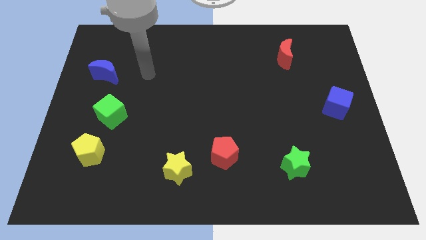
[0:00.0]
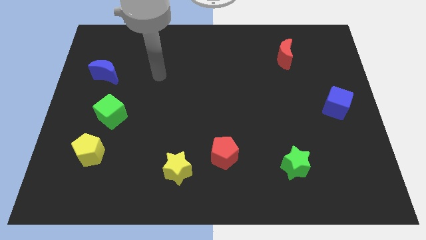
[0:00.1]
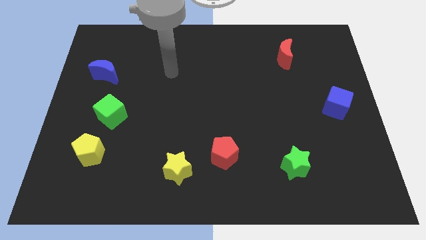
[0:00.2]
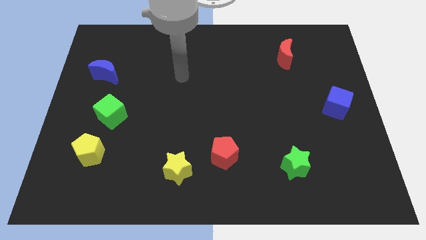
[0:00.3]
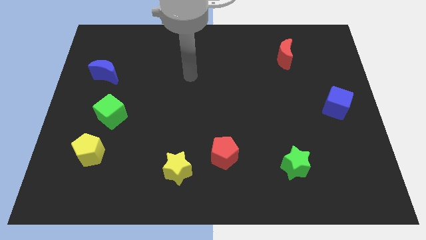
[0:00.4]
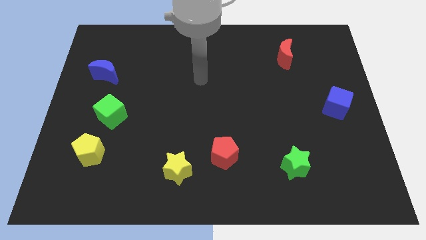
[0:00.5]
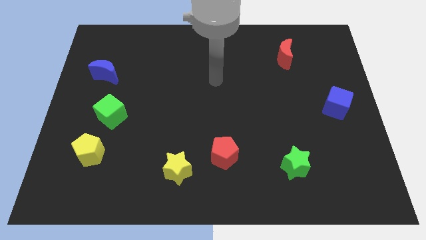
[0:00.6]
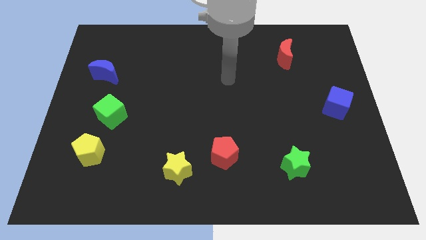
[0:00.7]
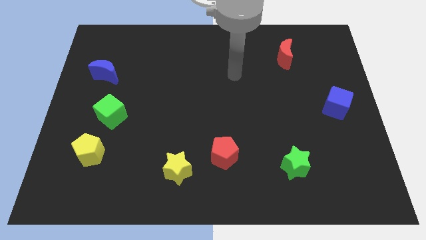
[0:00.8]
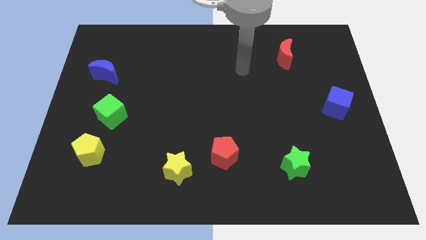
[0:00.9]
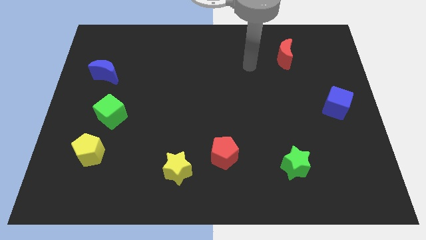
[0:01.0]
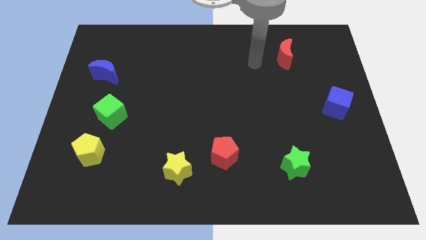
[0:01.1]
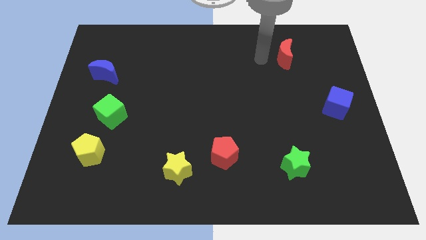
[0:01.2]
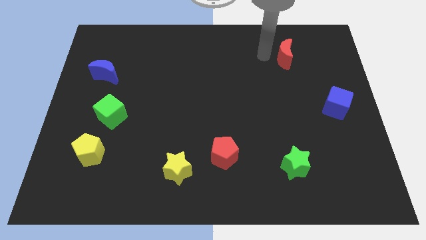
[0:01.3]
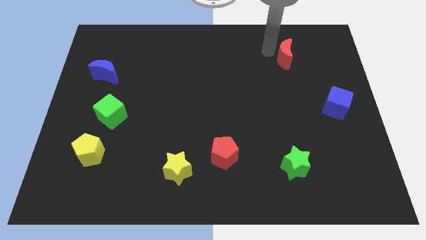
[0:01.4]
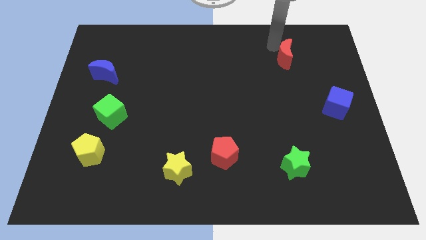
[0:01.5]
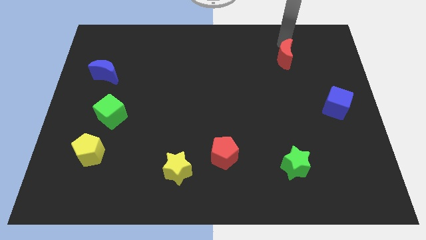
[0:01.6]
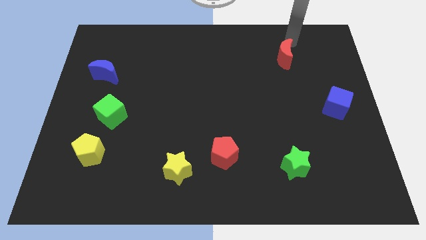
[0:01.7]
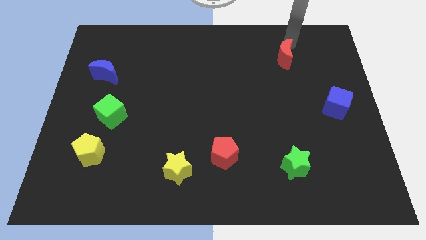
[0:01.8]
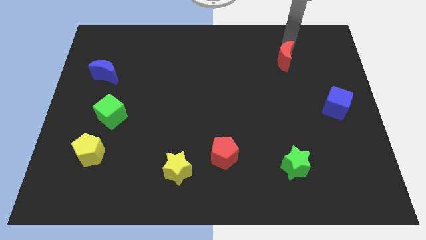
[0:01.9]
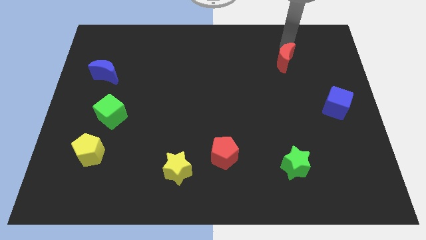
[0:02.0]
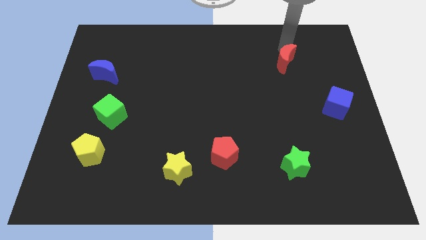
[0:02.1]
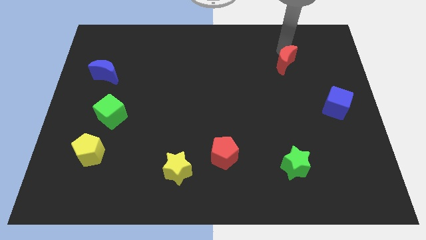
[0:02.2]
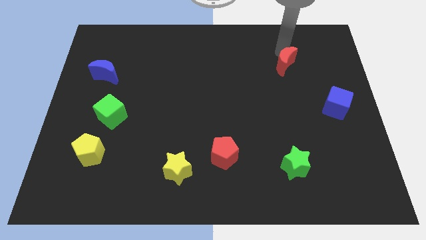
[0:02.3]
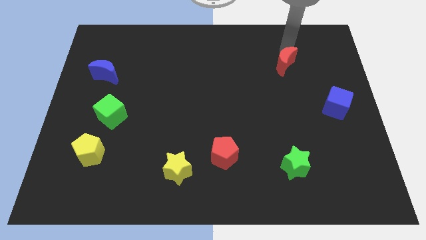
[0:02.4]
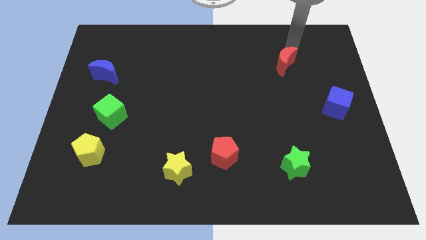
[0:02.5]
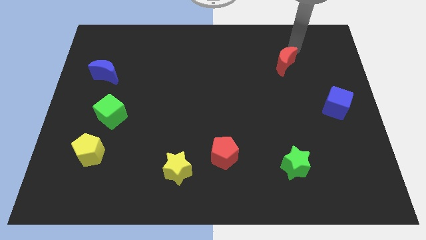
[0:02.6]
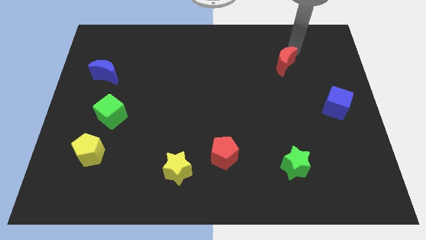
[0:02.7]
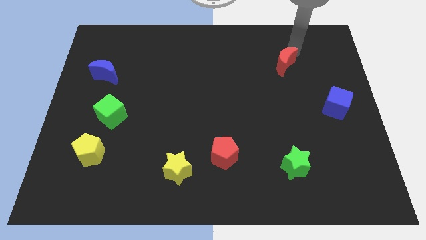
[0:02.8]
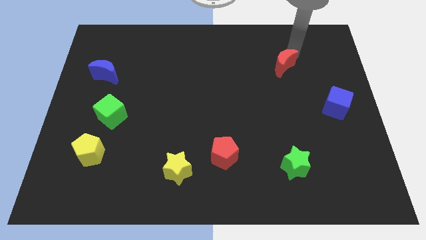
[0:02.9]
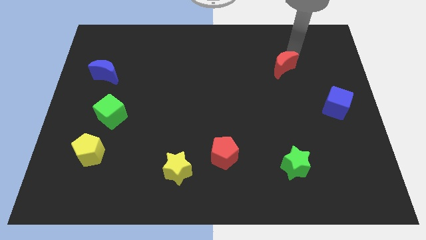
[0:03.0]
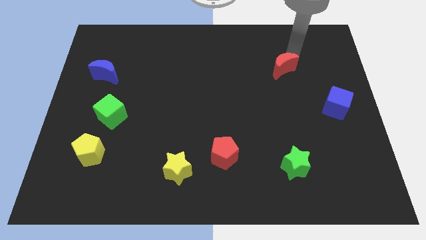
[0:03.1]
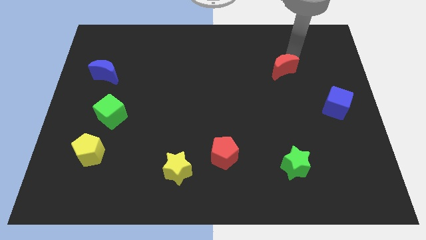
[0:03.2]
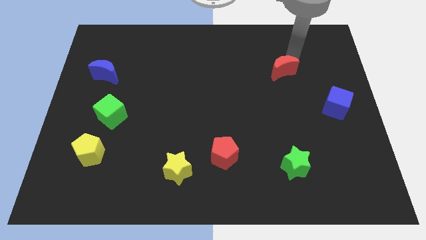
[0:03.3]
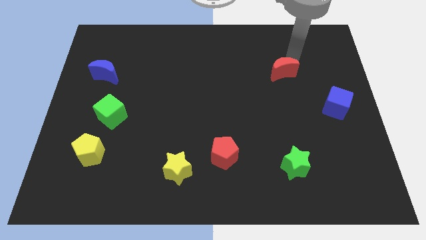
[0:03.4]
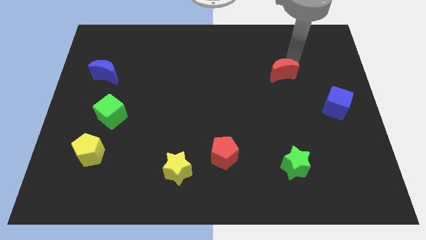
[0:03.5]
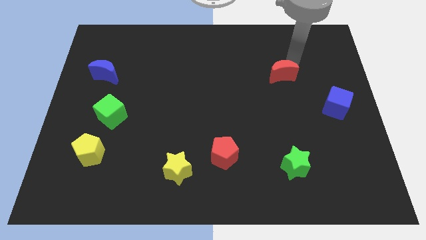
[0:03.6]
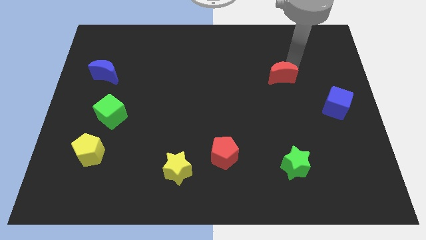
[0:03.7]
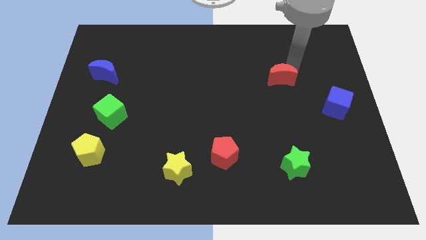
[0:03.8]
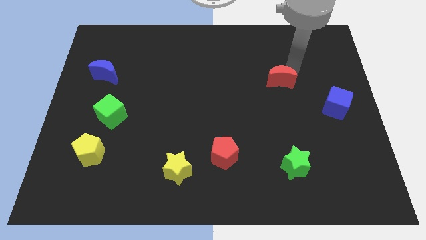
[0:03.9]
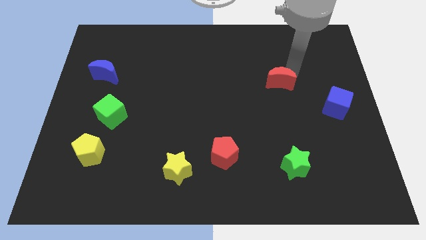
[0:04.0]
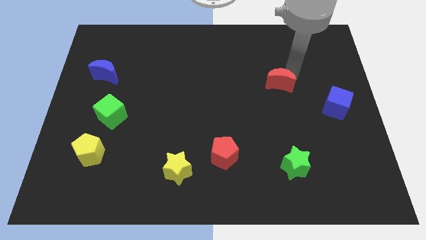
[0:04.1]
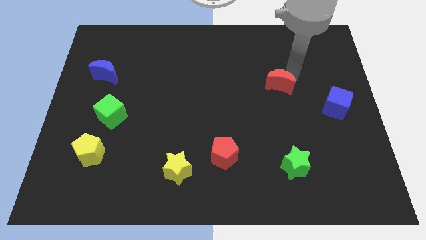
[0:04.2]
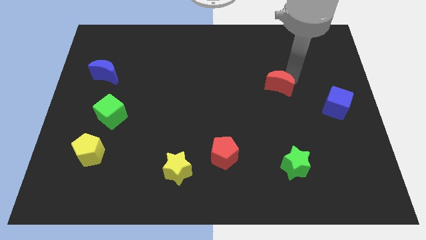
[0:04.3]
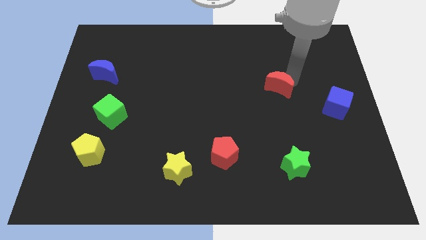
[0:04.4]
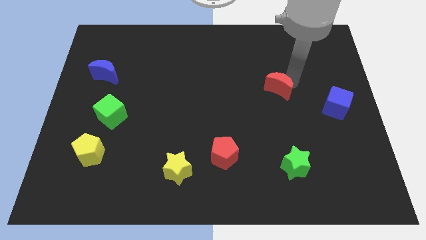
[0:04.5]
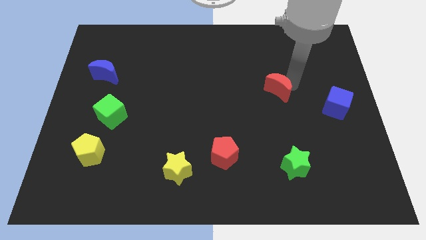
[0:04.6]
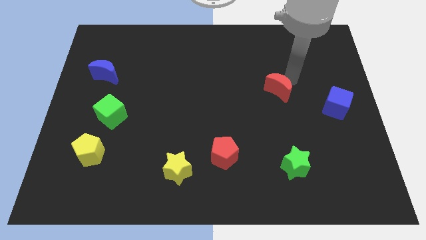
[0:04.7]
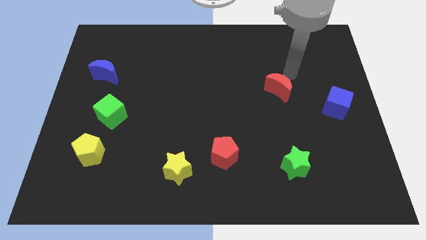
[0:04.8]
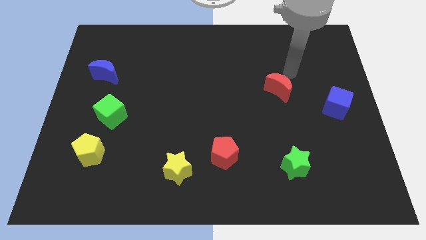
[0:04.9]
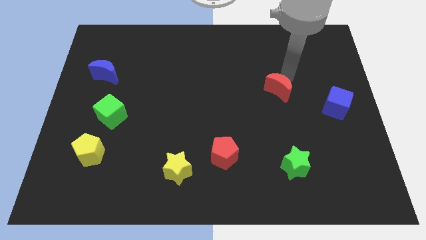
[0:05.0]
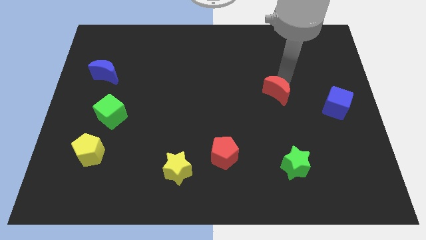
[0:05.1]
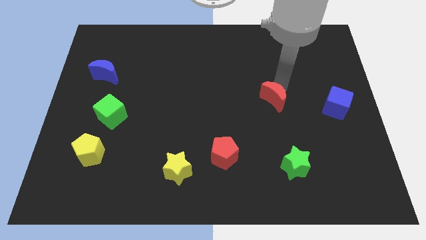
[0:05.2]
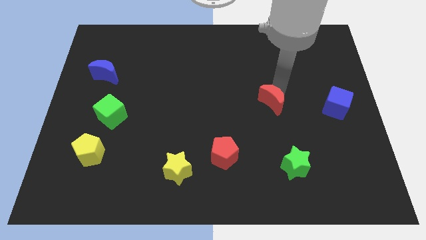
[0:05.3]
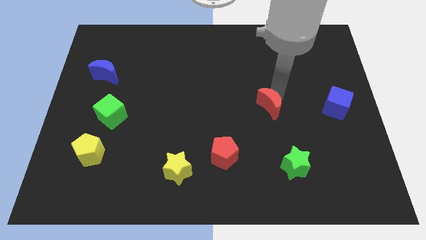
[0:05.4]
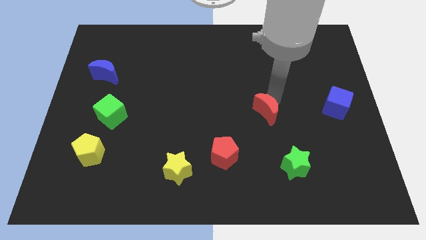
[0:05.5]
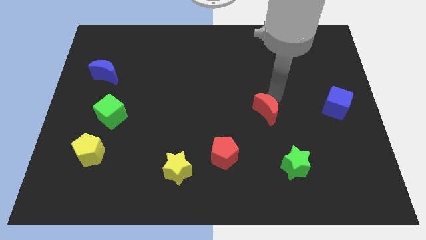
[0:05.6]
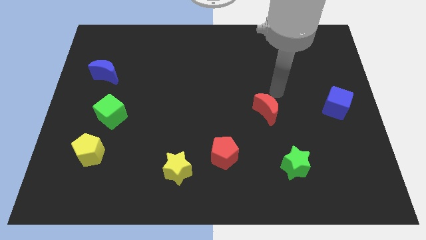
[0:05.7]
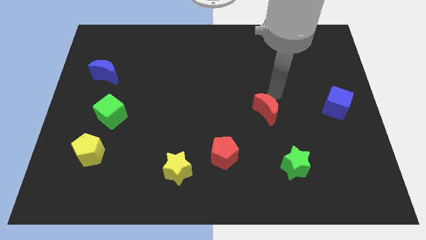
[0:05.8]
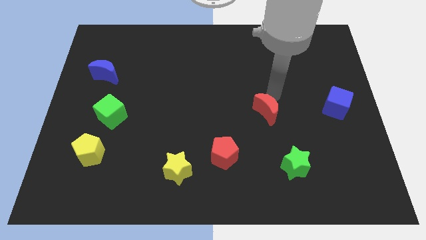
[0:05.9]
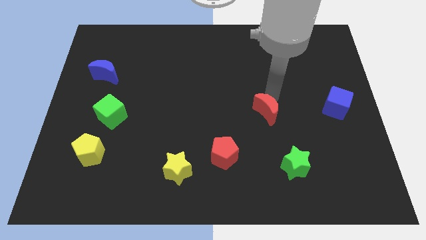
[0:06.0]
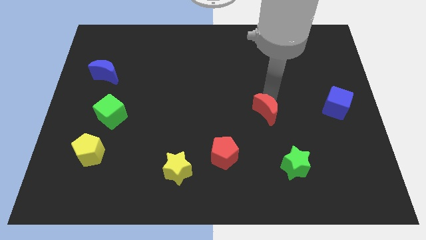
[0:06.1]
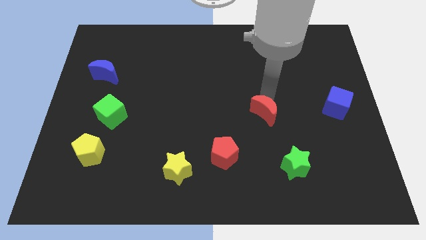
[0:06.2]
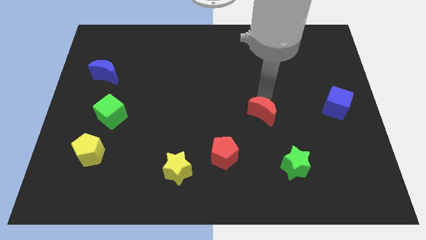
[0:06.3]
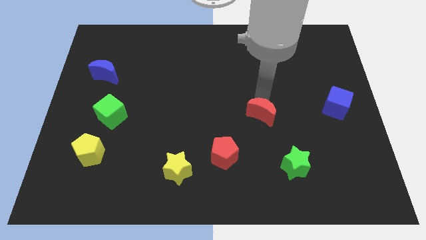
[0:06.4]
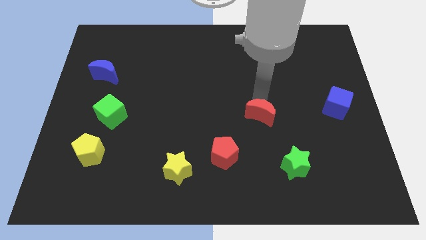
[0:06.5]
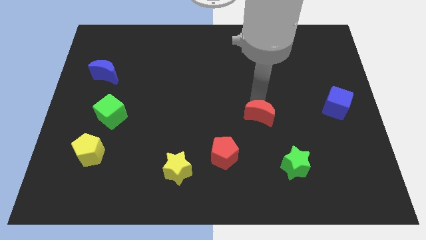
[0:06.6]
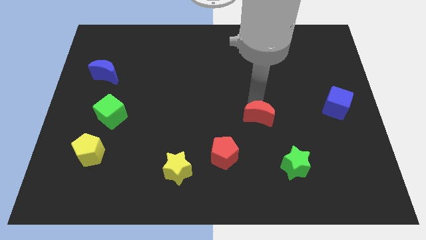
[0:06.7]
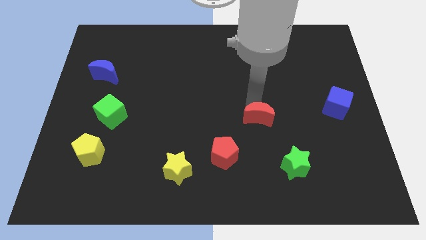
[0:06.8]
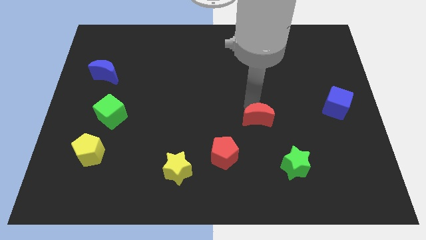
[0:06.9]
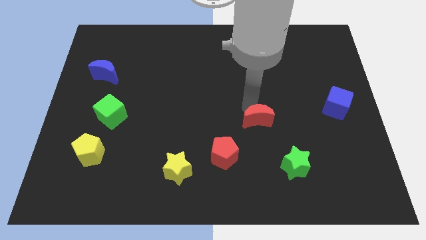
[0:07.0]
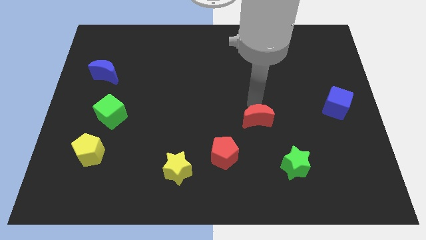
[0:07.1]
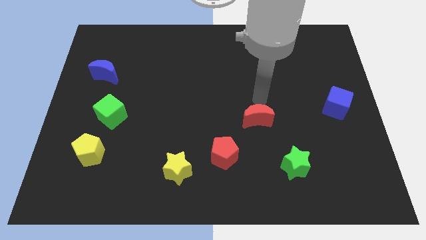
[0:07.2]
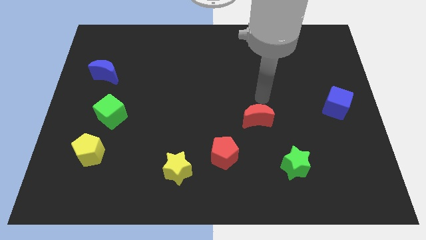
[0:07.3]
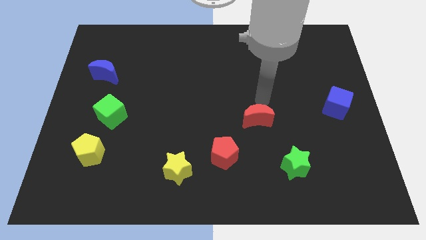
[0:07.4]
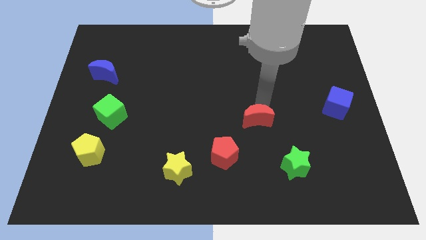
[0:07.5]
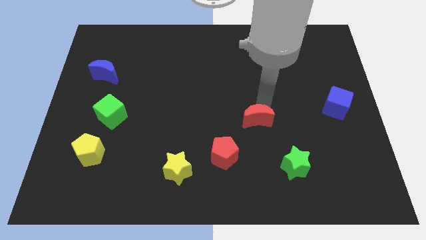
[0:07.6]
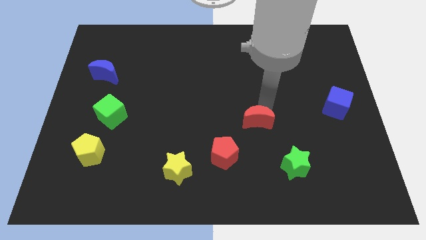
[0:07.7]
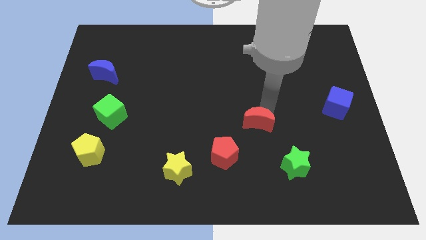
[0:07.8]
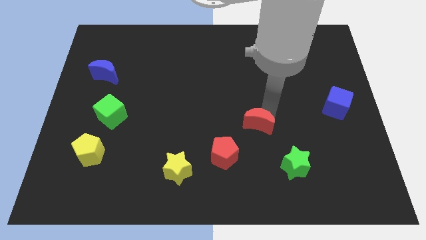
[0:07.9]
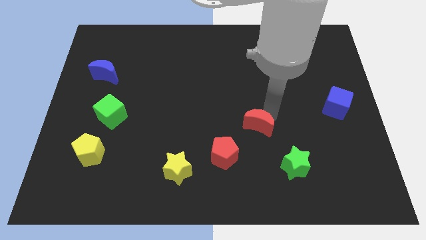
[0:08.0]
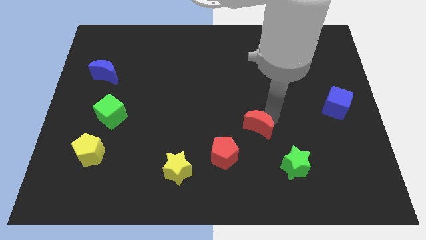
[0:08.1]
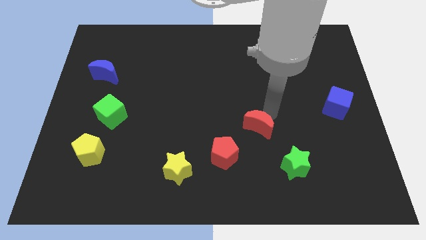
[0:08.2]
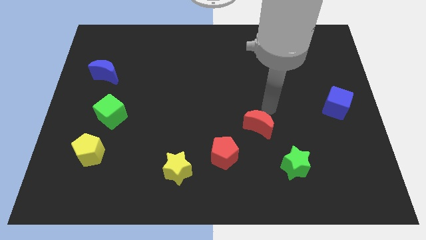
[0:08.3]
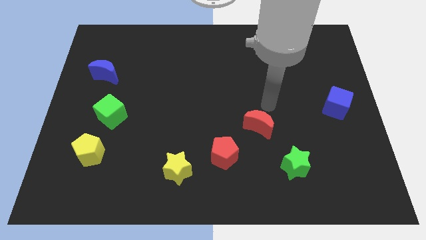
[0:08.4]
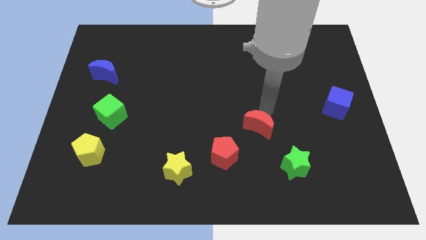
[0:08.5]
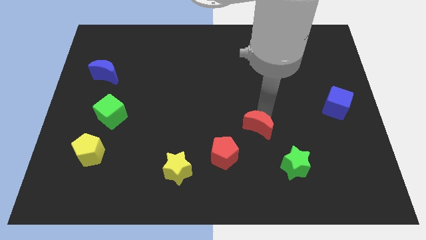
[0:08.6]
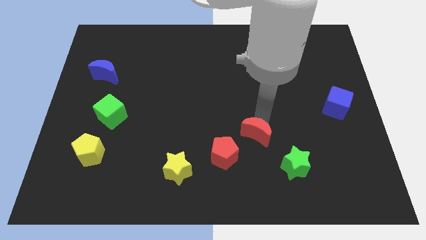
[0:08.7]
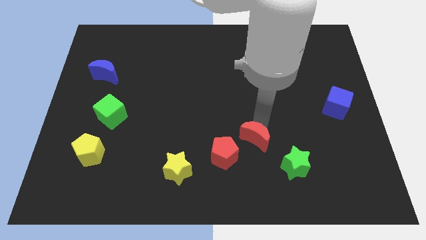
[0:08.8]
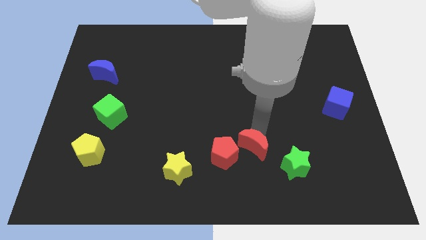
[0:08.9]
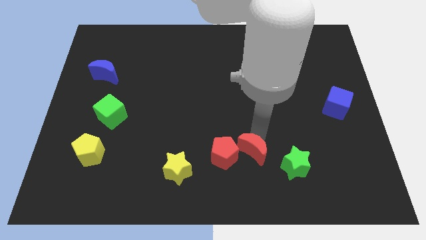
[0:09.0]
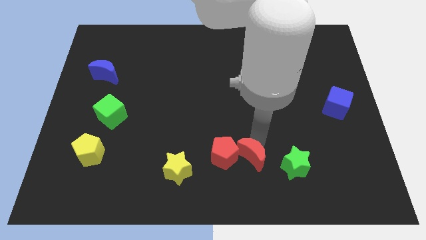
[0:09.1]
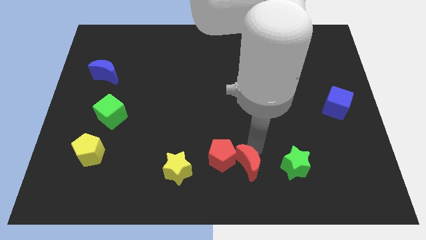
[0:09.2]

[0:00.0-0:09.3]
put the red moon to the bottom
